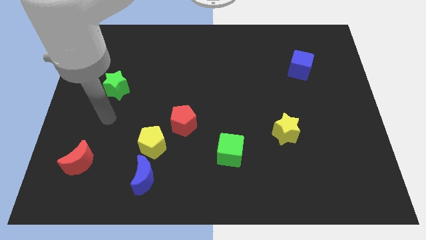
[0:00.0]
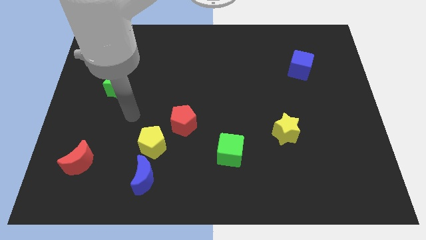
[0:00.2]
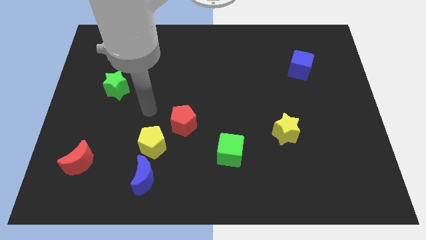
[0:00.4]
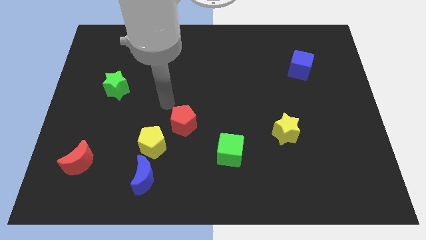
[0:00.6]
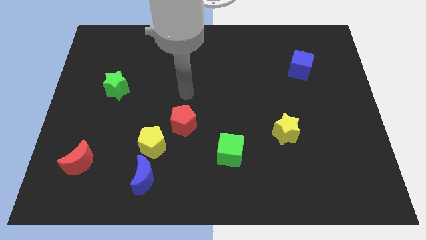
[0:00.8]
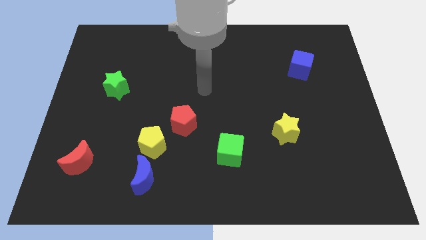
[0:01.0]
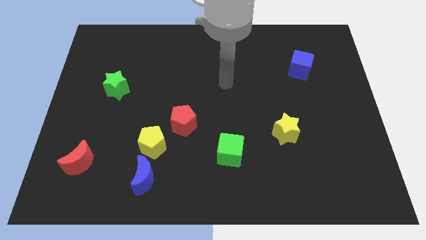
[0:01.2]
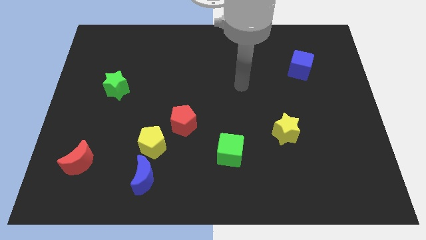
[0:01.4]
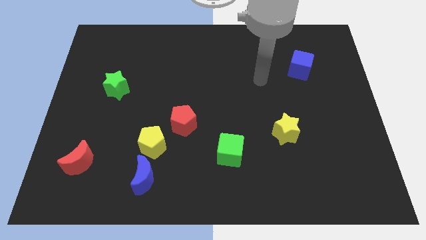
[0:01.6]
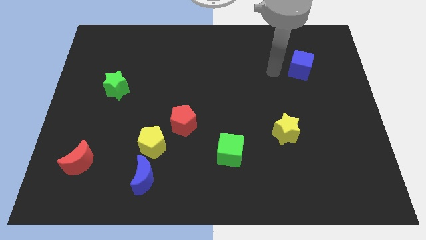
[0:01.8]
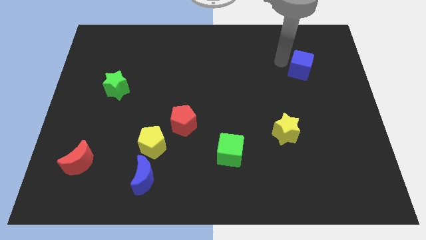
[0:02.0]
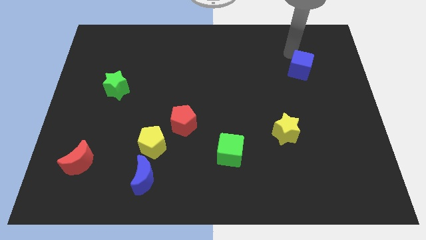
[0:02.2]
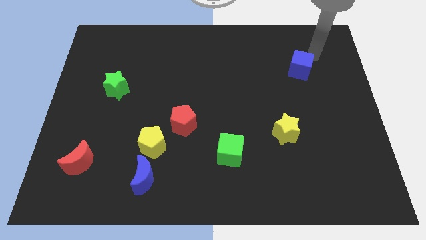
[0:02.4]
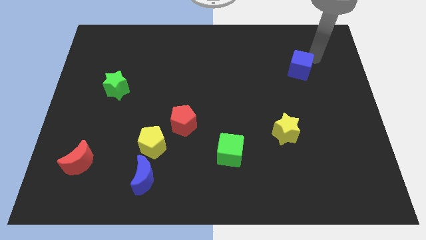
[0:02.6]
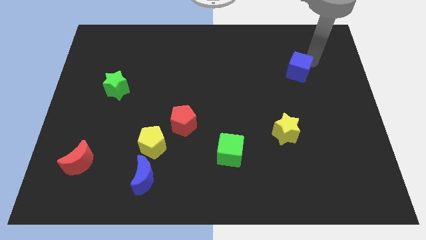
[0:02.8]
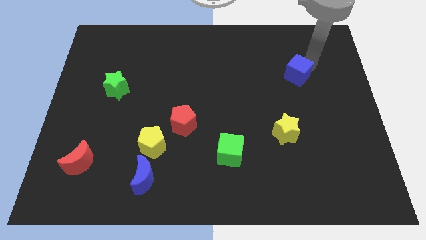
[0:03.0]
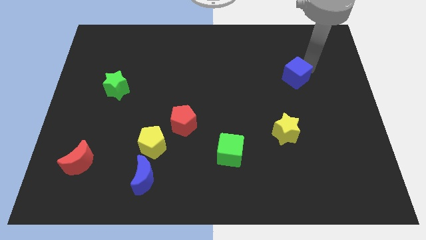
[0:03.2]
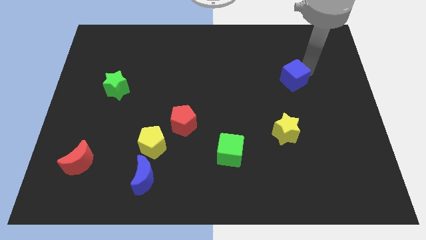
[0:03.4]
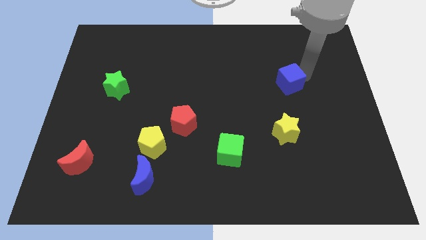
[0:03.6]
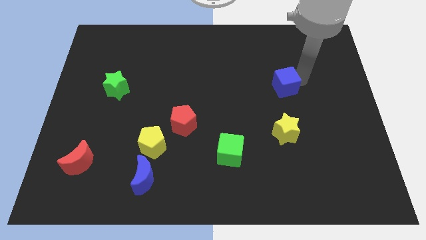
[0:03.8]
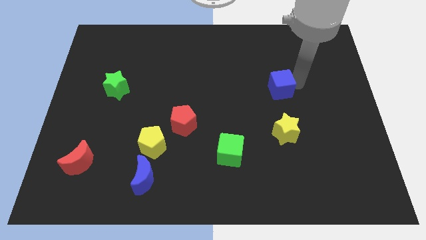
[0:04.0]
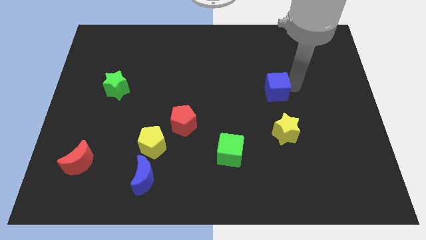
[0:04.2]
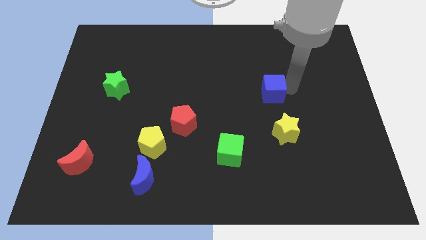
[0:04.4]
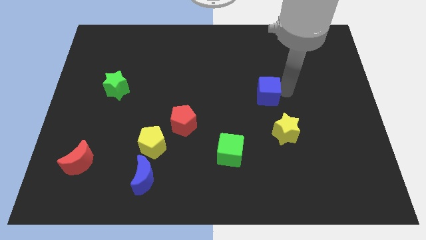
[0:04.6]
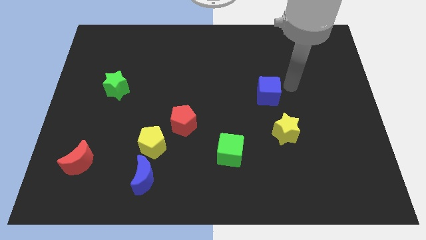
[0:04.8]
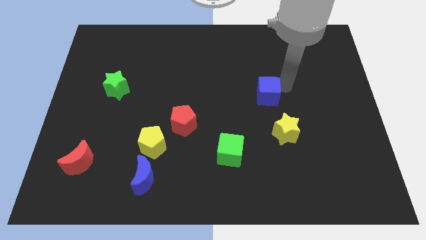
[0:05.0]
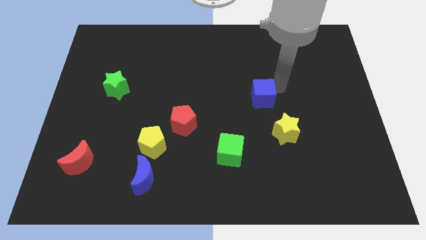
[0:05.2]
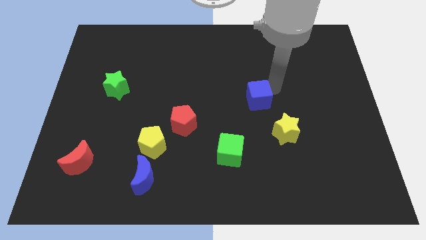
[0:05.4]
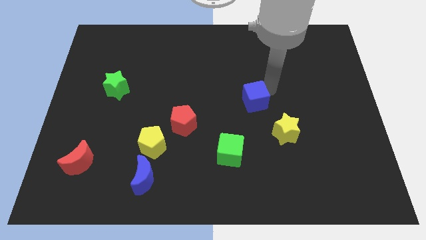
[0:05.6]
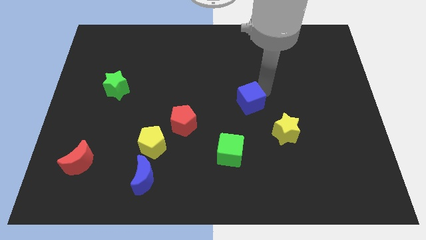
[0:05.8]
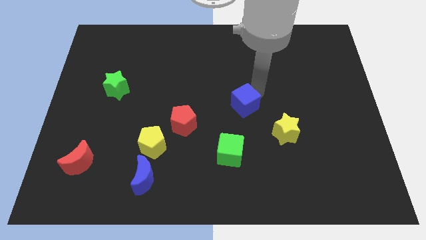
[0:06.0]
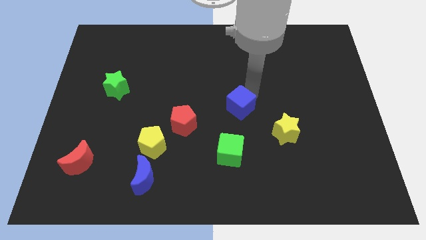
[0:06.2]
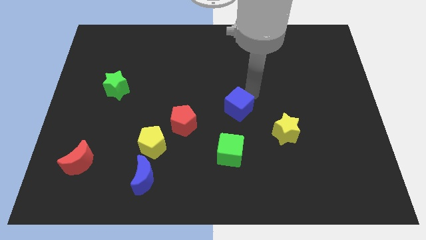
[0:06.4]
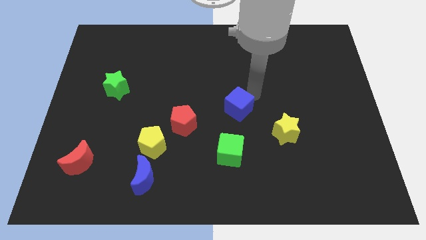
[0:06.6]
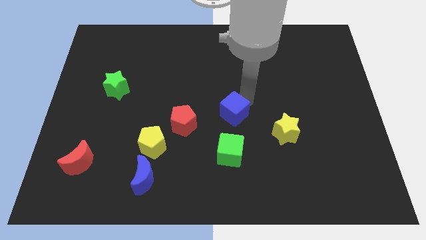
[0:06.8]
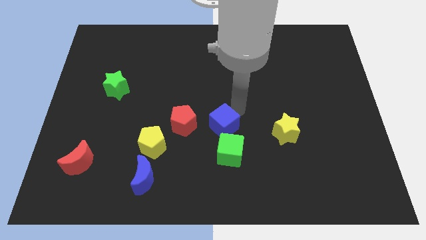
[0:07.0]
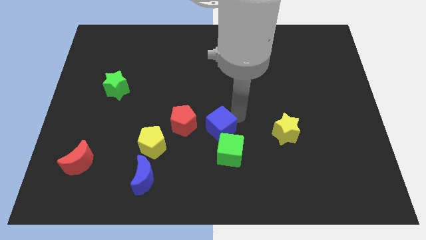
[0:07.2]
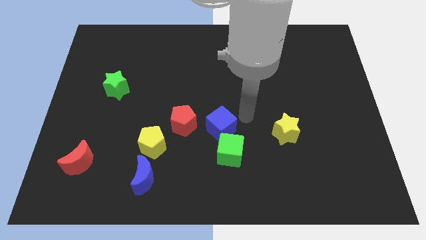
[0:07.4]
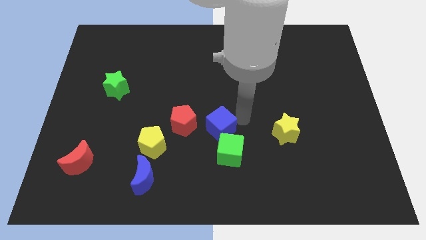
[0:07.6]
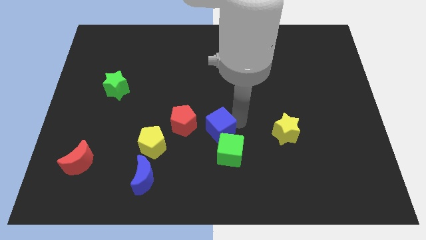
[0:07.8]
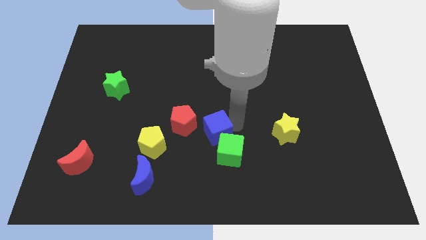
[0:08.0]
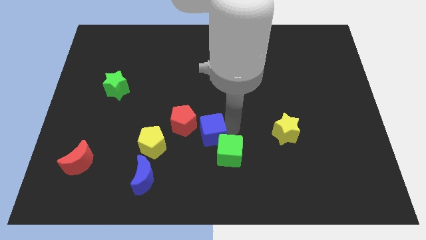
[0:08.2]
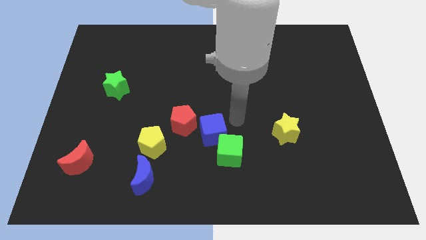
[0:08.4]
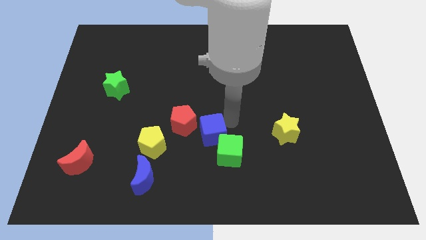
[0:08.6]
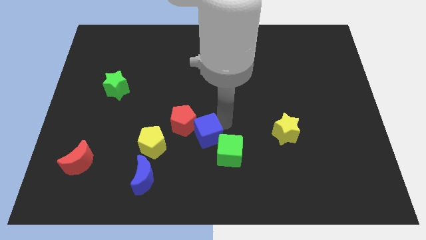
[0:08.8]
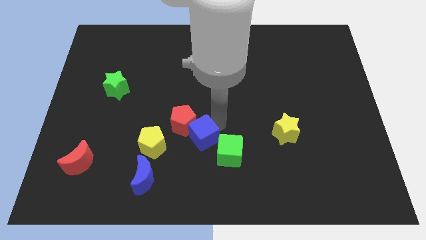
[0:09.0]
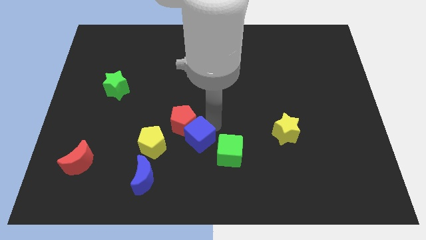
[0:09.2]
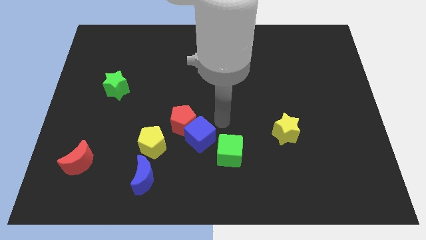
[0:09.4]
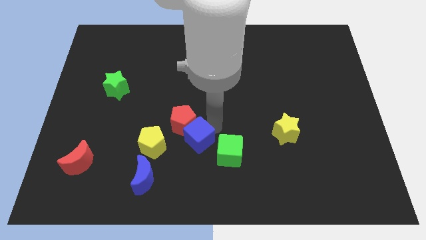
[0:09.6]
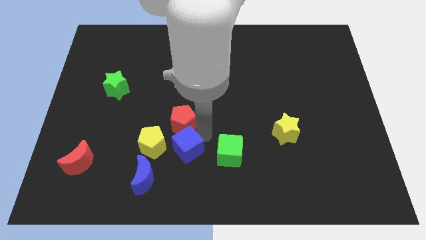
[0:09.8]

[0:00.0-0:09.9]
put the blue cube to the top right side of the blue moon

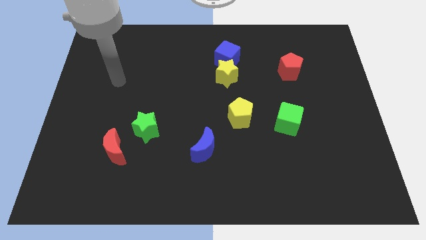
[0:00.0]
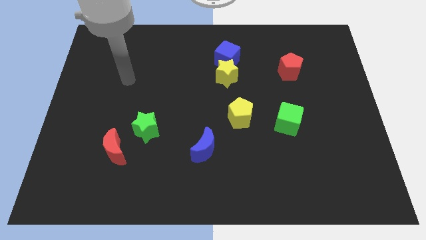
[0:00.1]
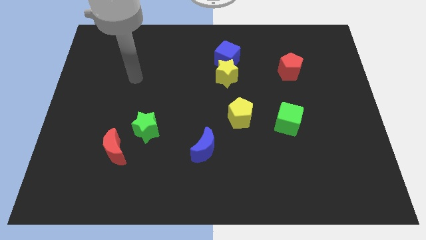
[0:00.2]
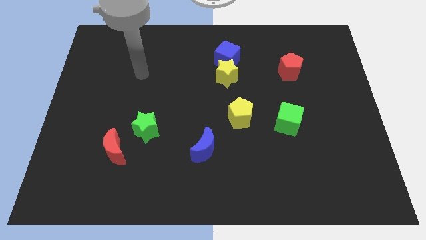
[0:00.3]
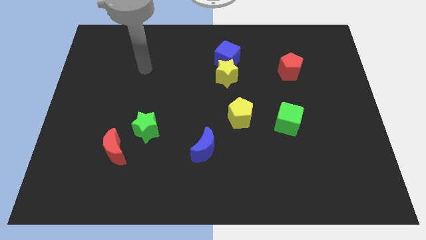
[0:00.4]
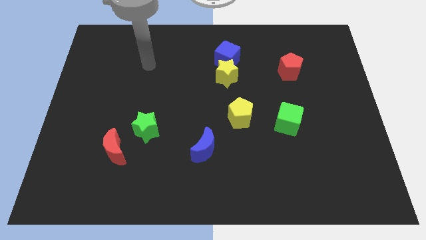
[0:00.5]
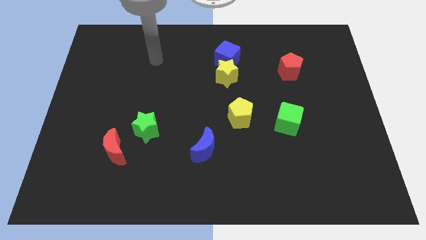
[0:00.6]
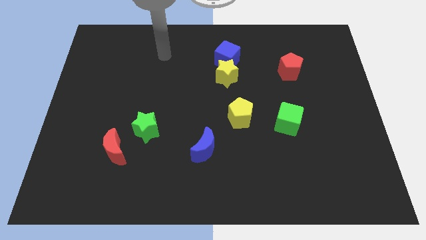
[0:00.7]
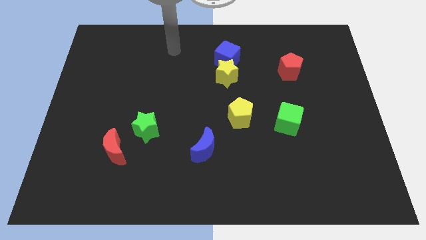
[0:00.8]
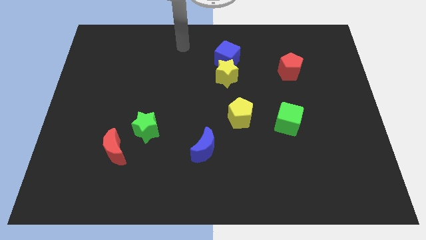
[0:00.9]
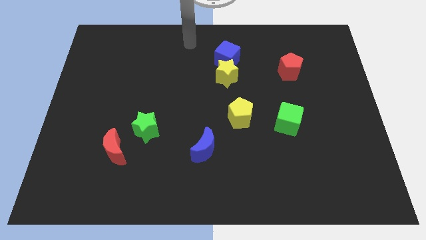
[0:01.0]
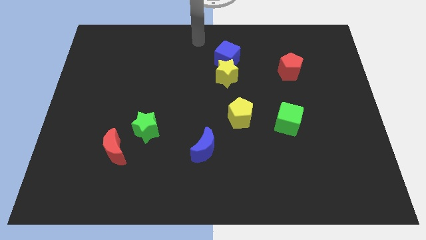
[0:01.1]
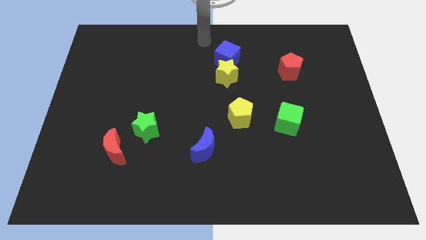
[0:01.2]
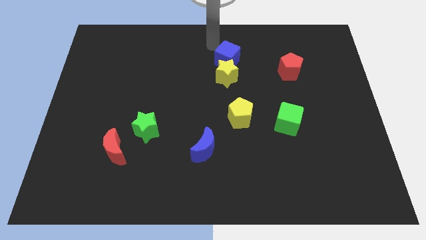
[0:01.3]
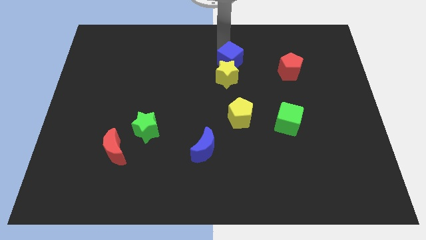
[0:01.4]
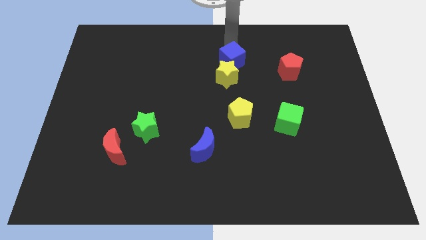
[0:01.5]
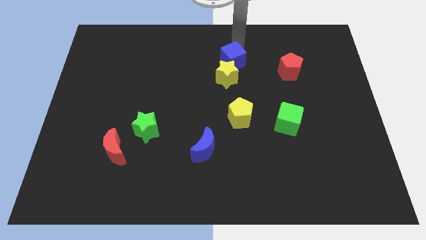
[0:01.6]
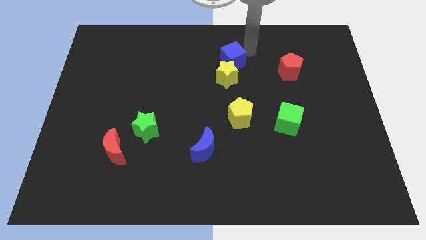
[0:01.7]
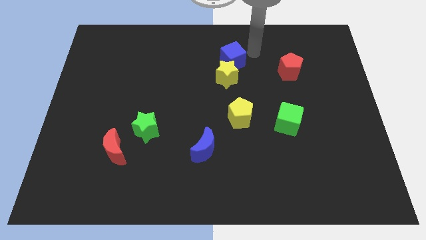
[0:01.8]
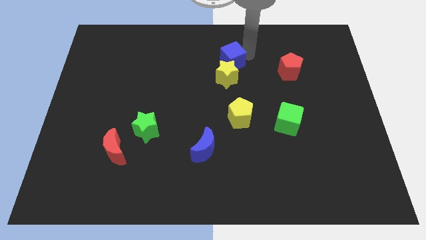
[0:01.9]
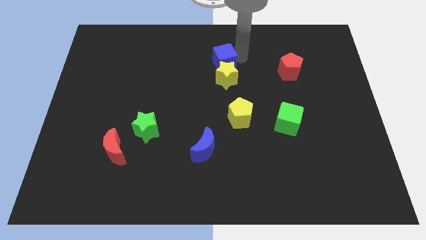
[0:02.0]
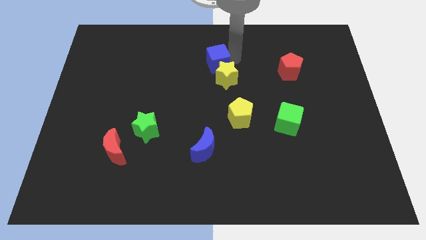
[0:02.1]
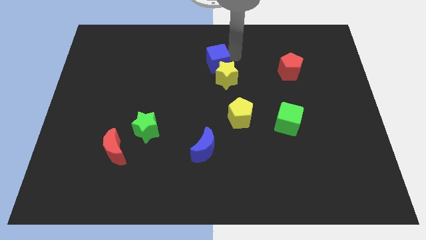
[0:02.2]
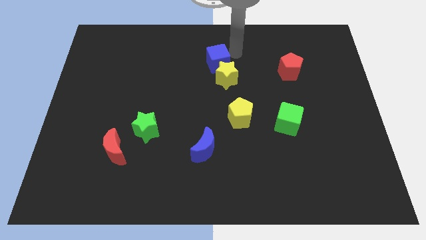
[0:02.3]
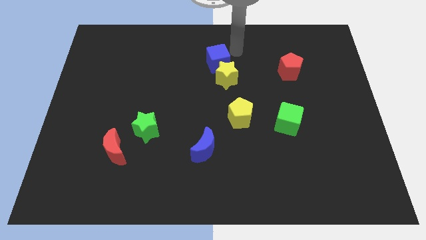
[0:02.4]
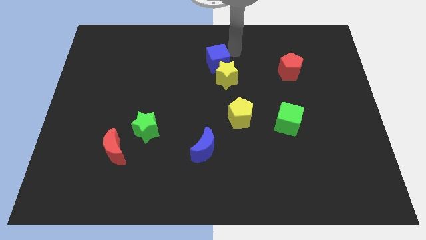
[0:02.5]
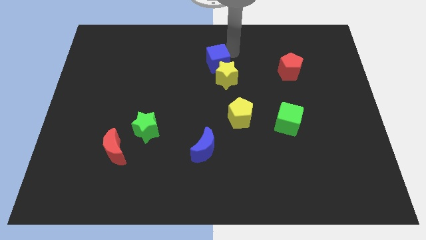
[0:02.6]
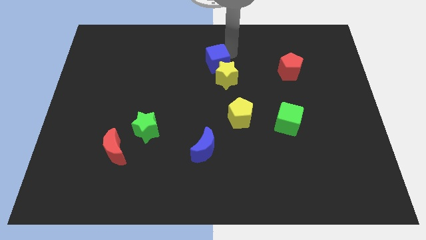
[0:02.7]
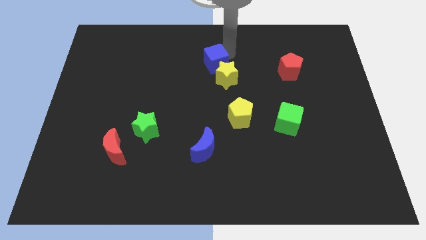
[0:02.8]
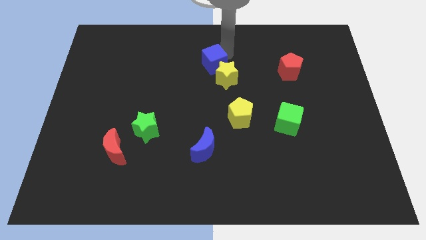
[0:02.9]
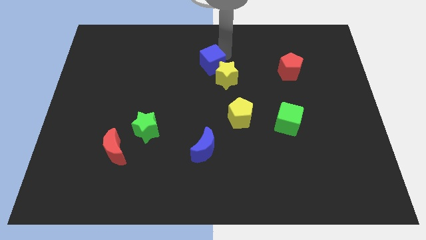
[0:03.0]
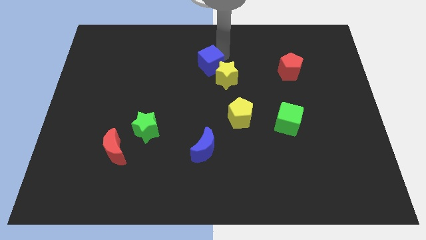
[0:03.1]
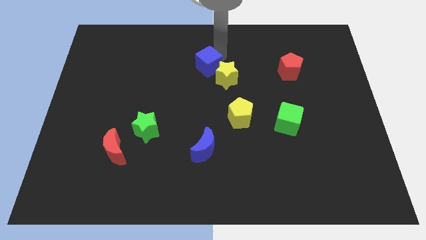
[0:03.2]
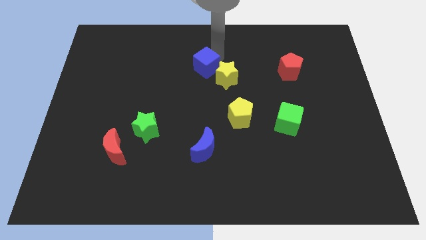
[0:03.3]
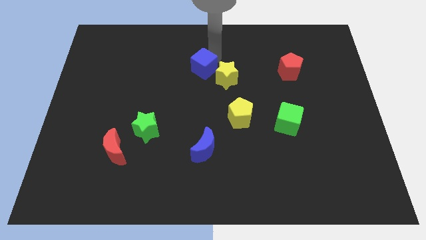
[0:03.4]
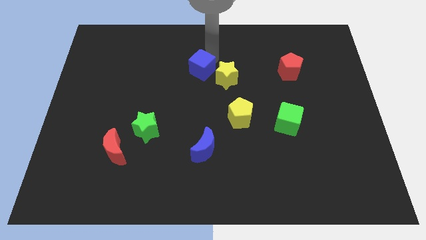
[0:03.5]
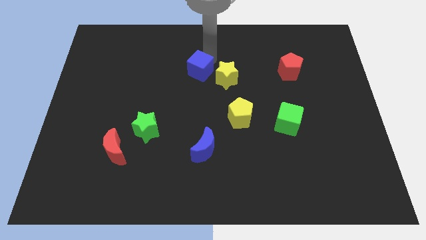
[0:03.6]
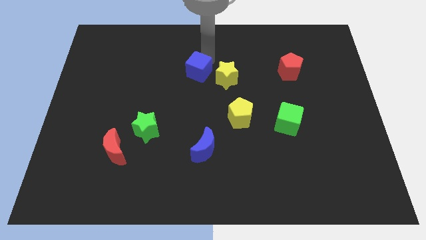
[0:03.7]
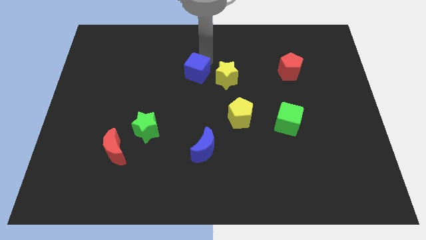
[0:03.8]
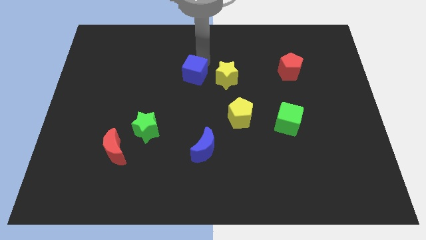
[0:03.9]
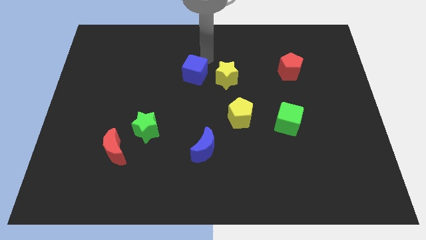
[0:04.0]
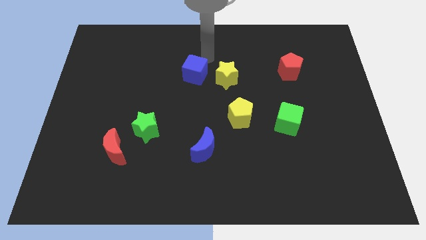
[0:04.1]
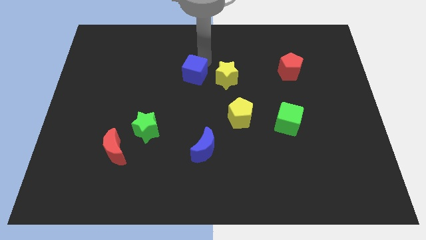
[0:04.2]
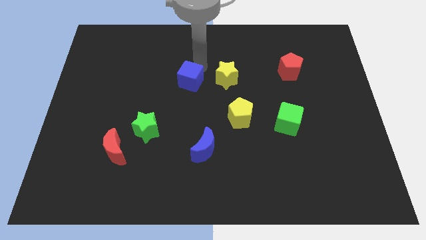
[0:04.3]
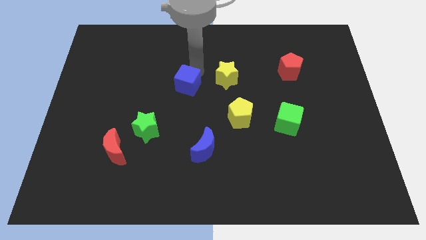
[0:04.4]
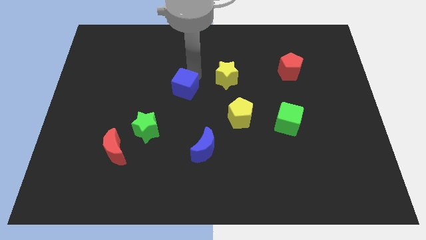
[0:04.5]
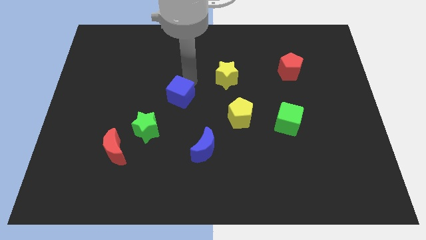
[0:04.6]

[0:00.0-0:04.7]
put the blue cube to the top right side of the green star
